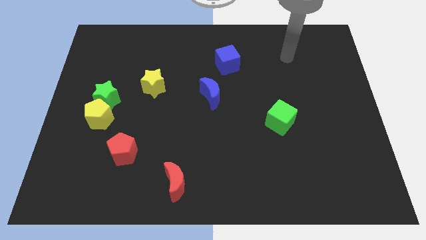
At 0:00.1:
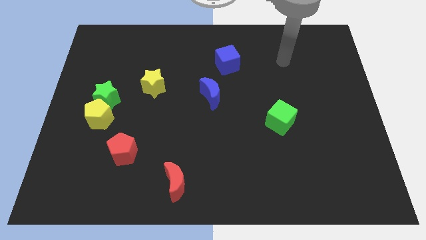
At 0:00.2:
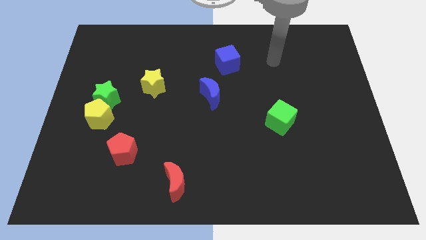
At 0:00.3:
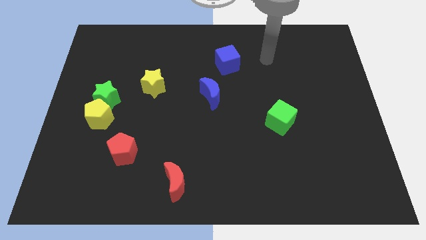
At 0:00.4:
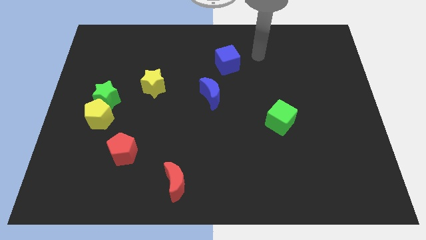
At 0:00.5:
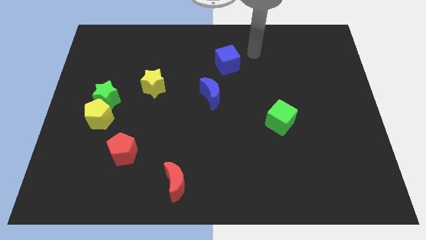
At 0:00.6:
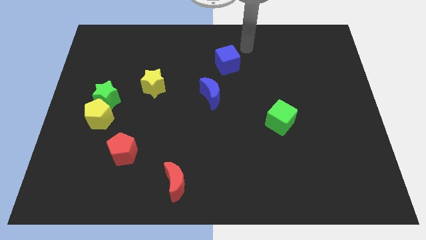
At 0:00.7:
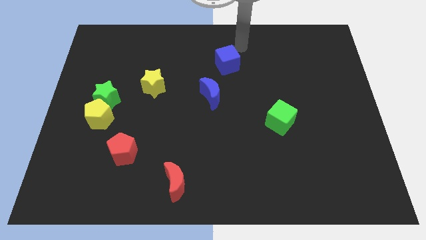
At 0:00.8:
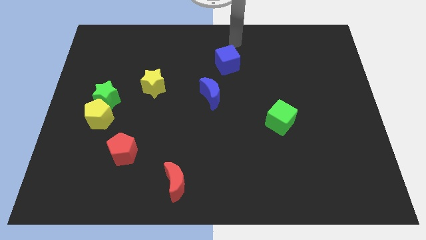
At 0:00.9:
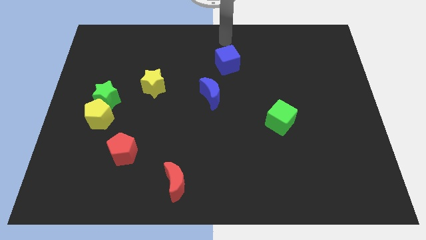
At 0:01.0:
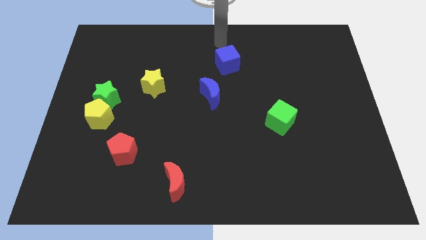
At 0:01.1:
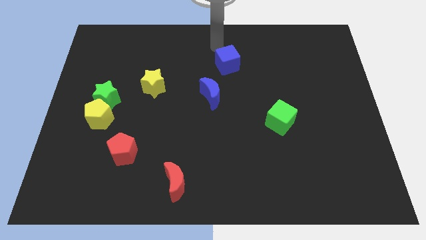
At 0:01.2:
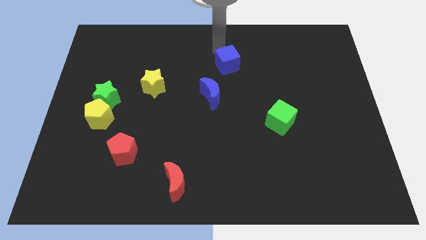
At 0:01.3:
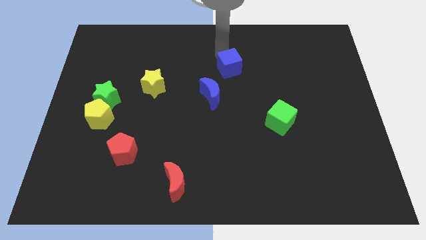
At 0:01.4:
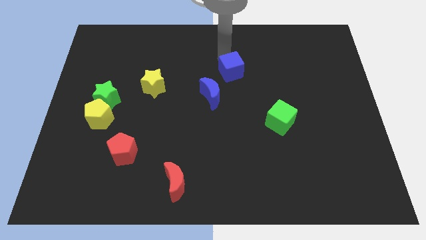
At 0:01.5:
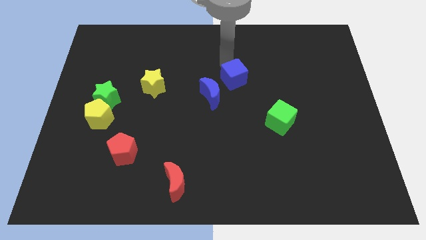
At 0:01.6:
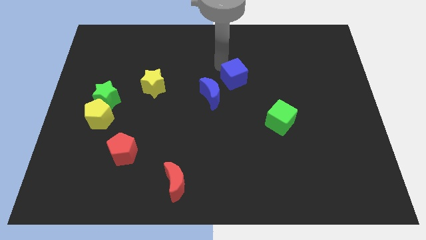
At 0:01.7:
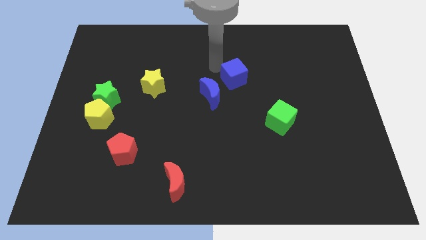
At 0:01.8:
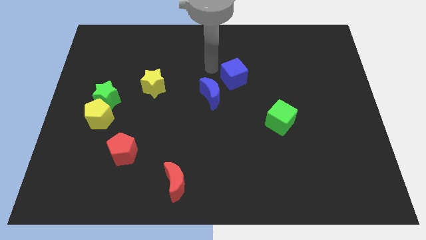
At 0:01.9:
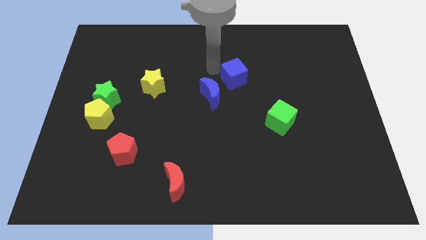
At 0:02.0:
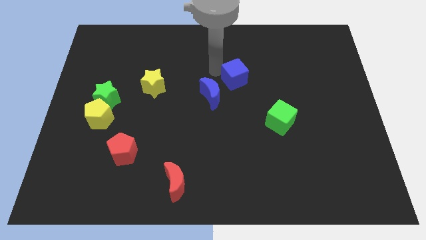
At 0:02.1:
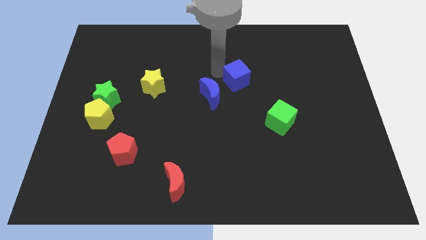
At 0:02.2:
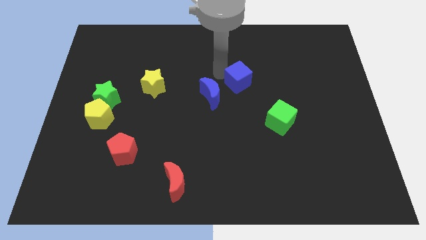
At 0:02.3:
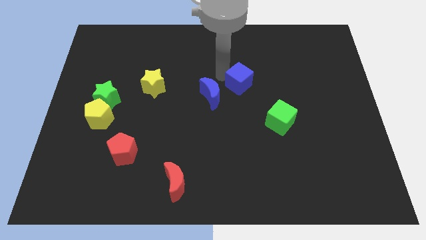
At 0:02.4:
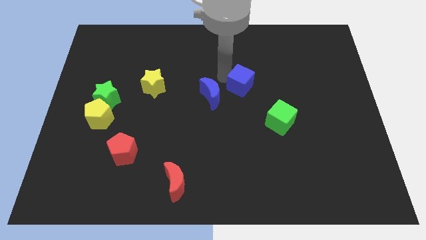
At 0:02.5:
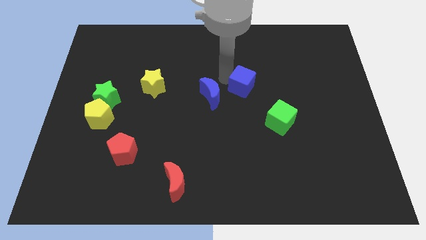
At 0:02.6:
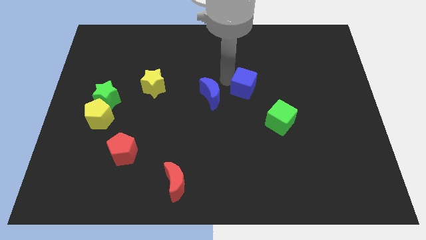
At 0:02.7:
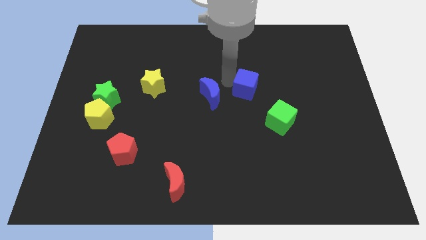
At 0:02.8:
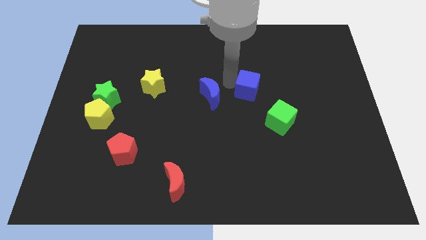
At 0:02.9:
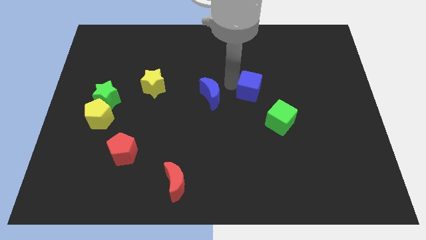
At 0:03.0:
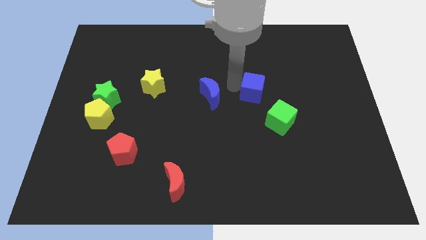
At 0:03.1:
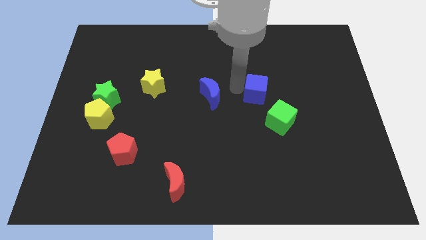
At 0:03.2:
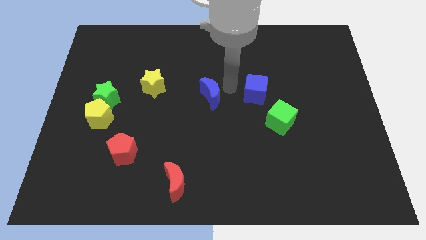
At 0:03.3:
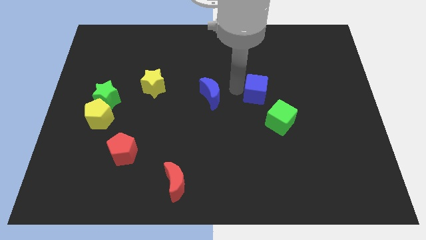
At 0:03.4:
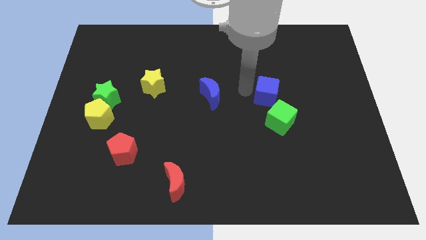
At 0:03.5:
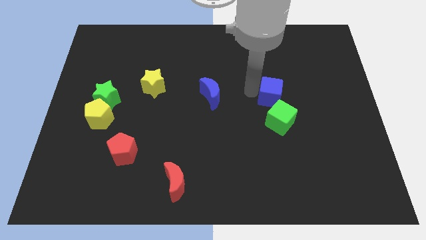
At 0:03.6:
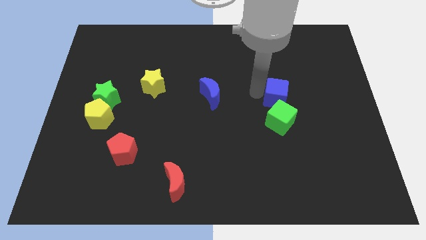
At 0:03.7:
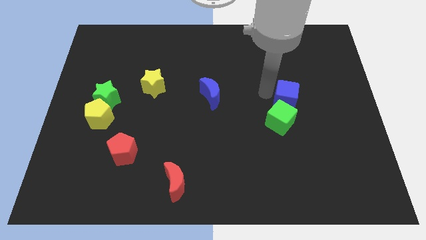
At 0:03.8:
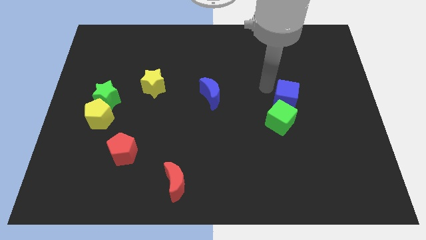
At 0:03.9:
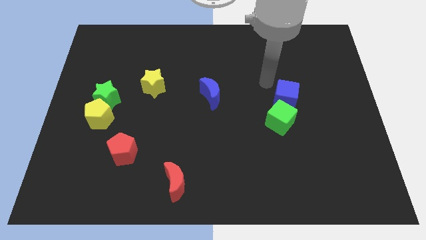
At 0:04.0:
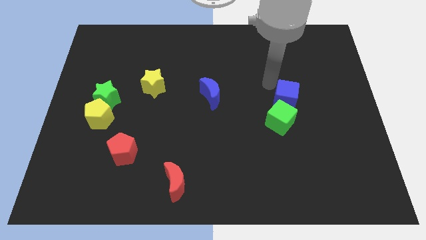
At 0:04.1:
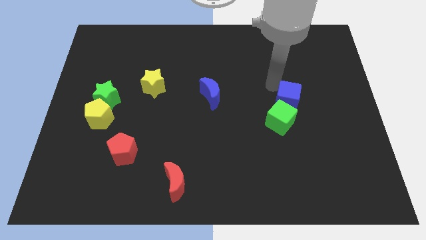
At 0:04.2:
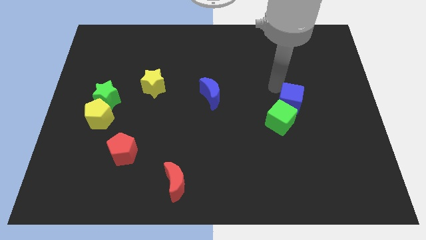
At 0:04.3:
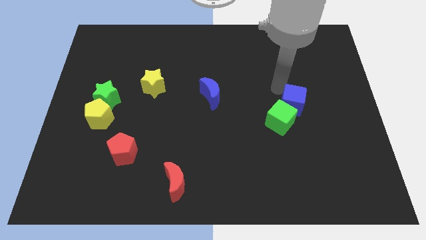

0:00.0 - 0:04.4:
slide the blue cube diagonally downwards and to the right

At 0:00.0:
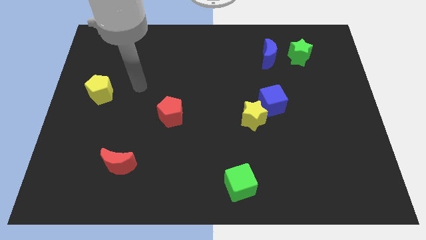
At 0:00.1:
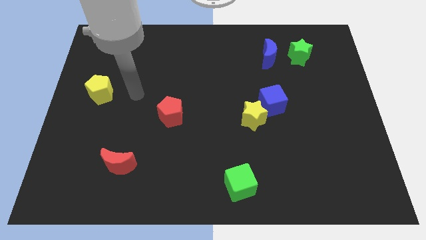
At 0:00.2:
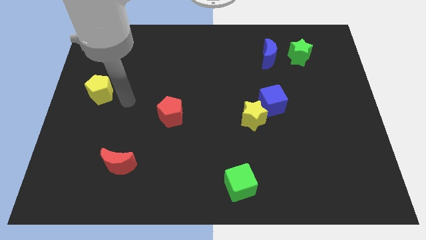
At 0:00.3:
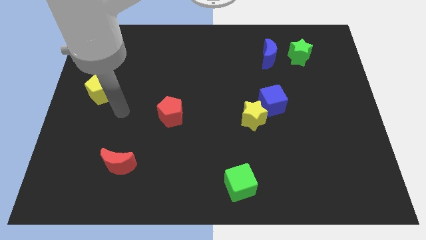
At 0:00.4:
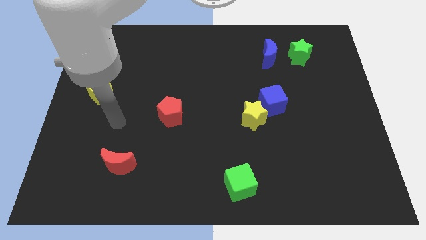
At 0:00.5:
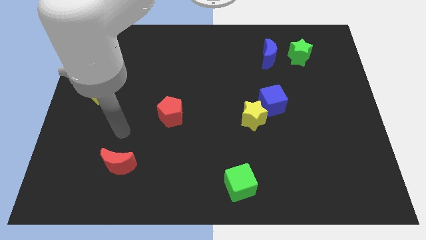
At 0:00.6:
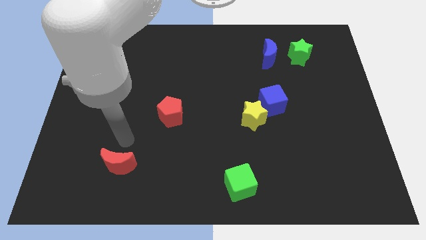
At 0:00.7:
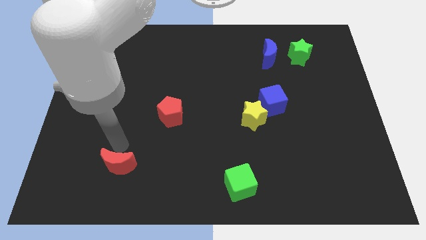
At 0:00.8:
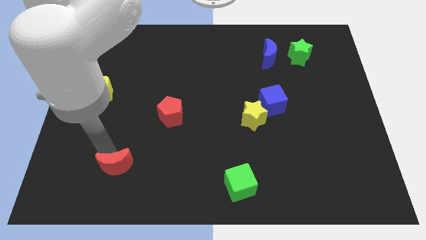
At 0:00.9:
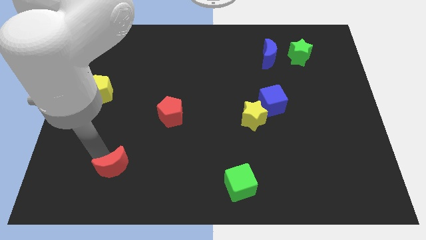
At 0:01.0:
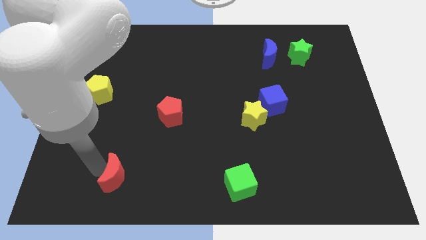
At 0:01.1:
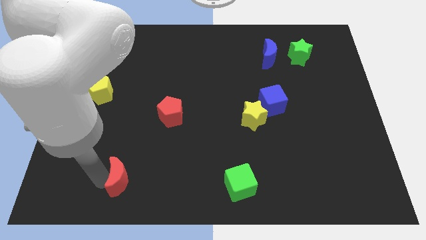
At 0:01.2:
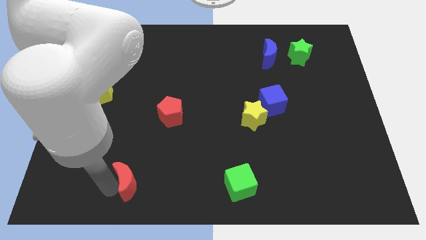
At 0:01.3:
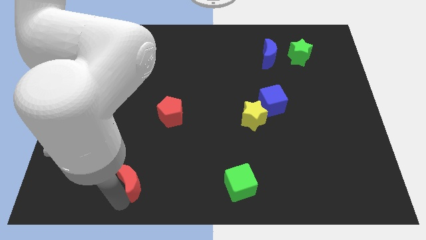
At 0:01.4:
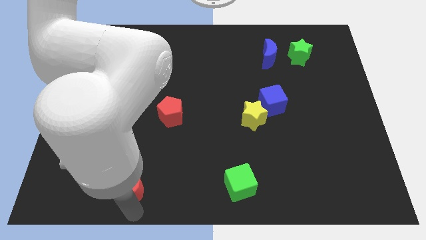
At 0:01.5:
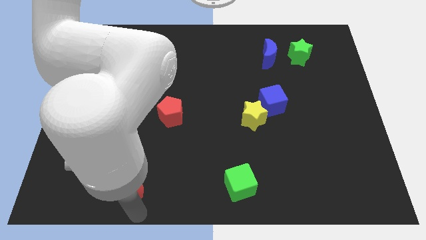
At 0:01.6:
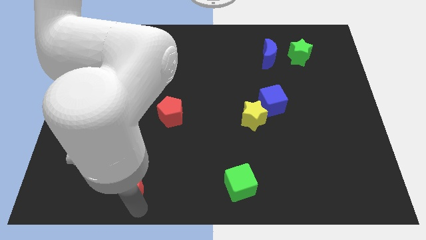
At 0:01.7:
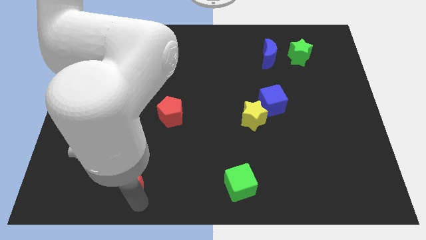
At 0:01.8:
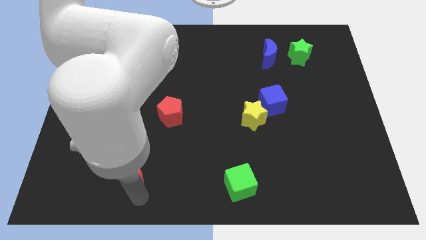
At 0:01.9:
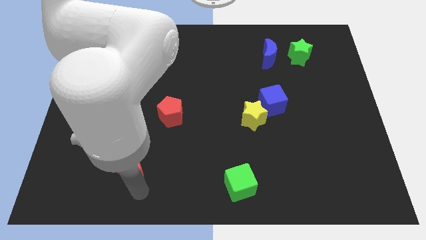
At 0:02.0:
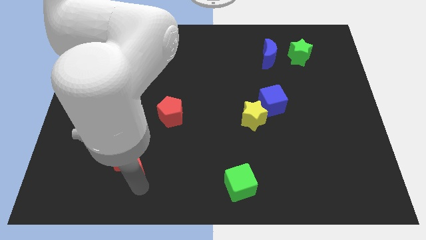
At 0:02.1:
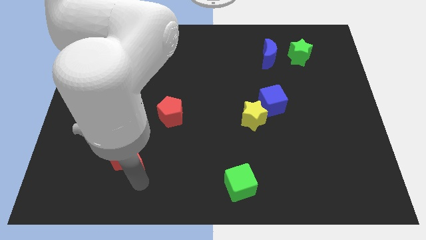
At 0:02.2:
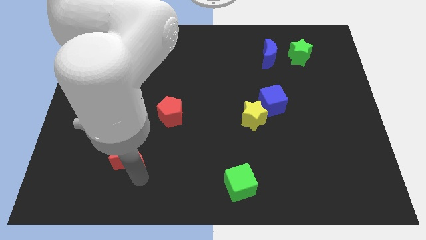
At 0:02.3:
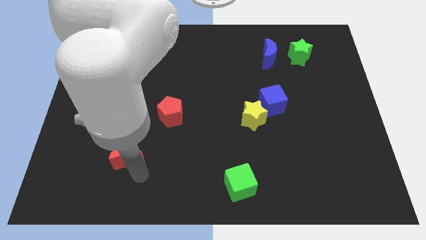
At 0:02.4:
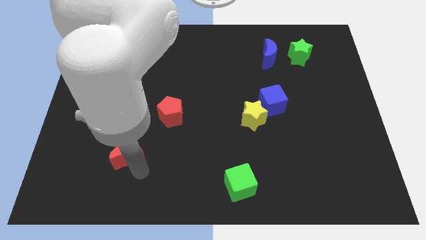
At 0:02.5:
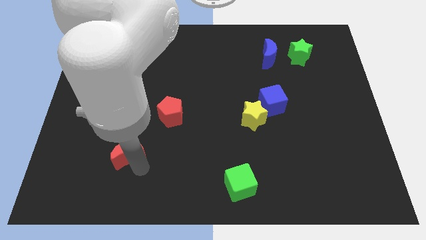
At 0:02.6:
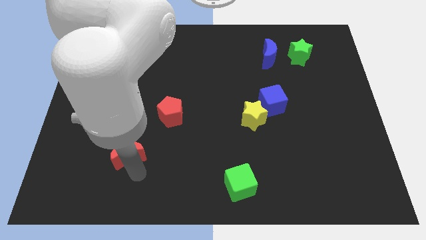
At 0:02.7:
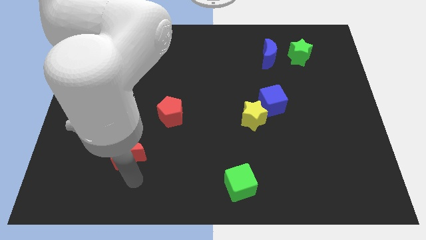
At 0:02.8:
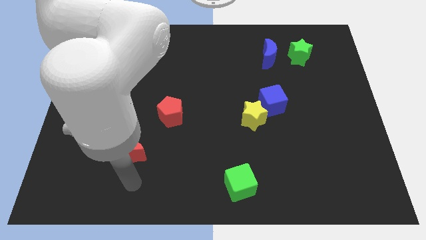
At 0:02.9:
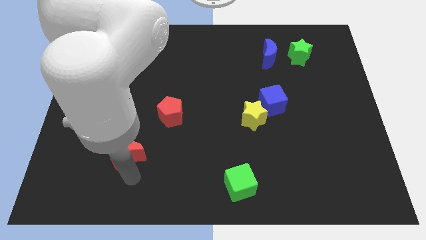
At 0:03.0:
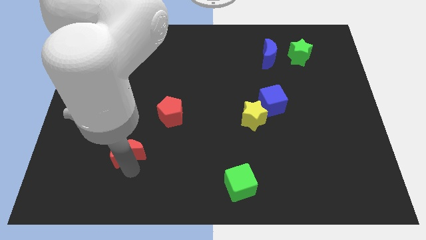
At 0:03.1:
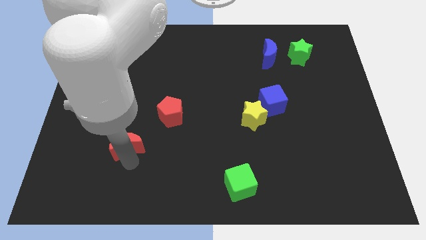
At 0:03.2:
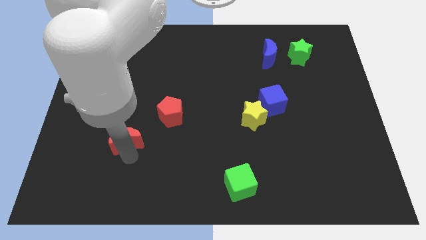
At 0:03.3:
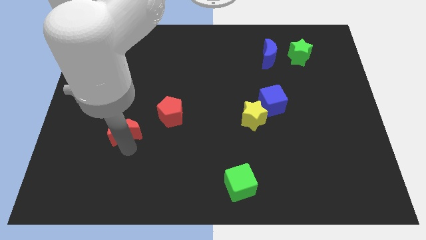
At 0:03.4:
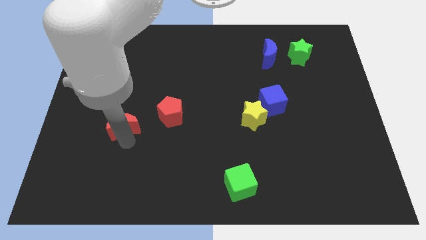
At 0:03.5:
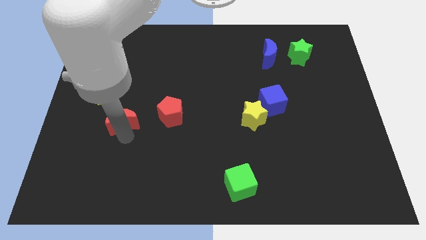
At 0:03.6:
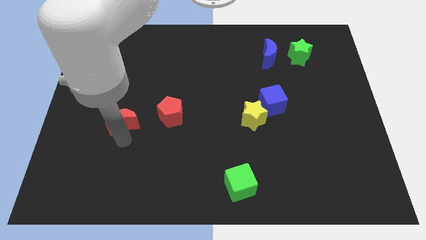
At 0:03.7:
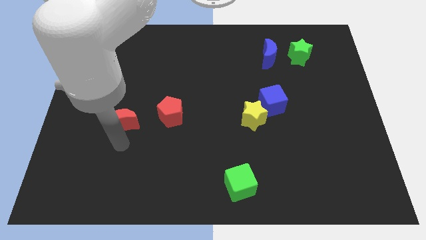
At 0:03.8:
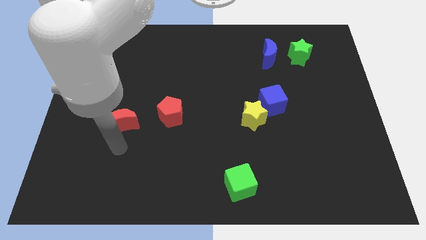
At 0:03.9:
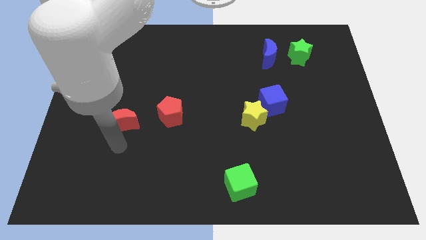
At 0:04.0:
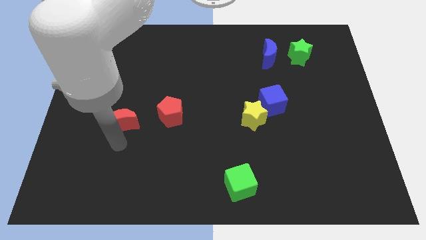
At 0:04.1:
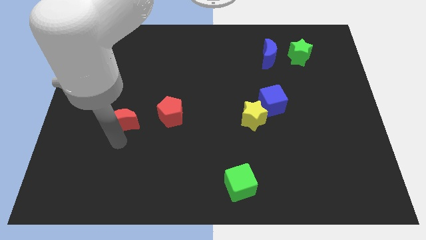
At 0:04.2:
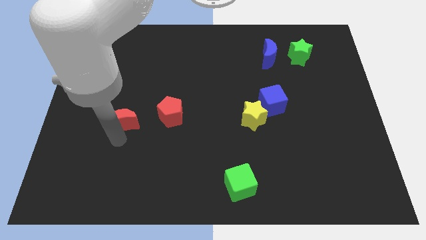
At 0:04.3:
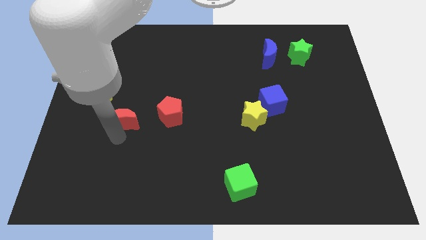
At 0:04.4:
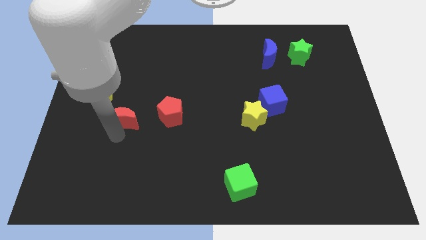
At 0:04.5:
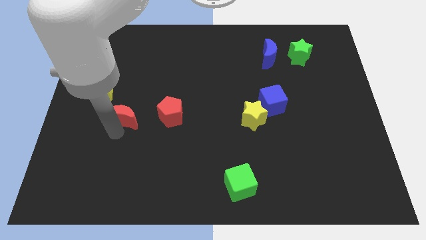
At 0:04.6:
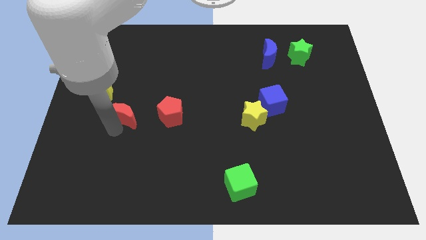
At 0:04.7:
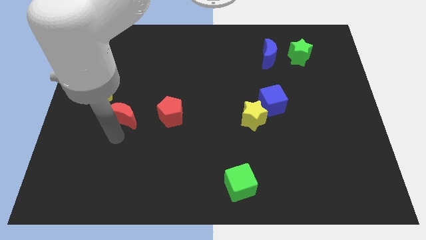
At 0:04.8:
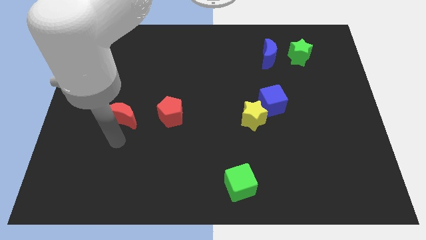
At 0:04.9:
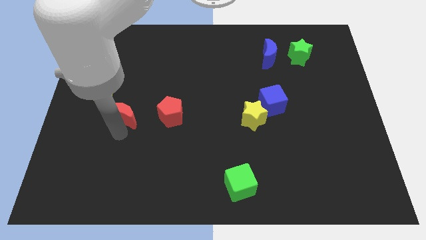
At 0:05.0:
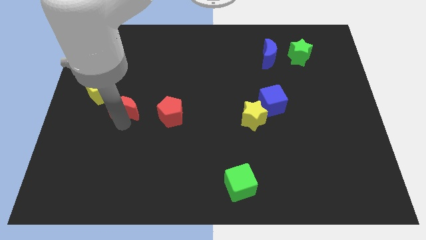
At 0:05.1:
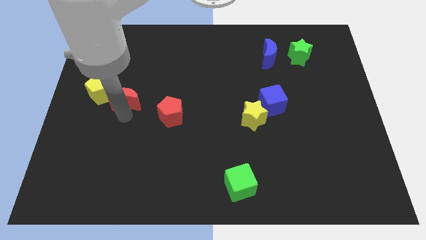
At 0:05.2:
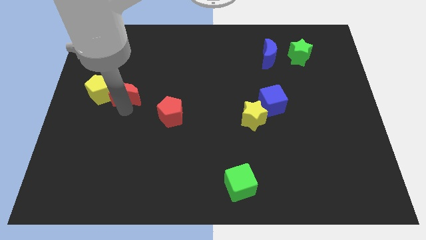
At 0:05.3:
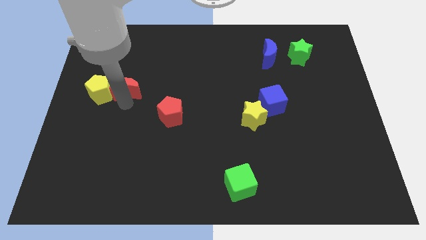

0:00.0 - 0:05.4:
slide the red moon upwards
